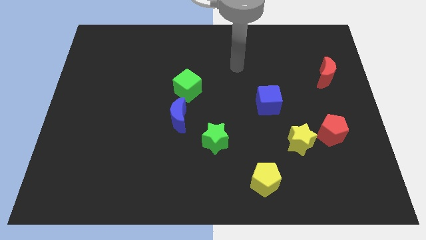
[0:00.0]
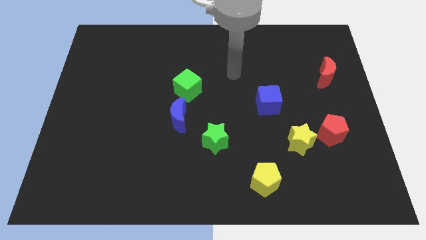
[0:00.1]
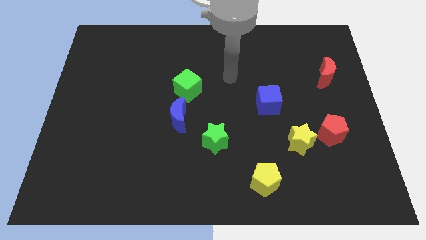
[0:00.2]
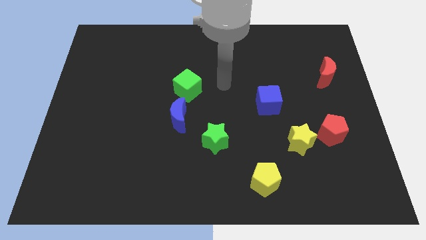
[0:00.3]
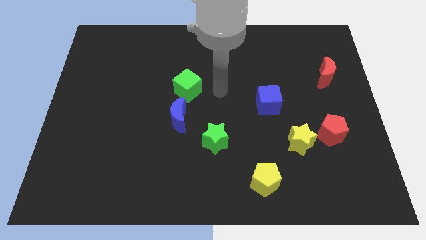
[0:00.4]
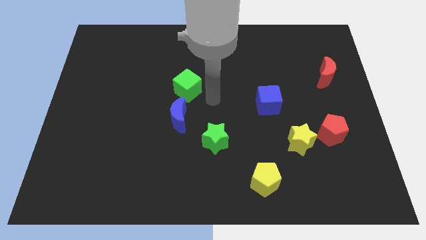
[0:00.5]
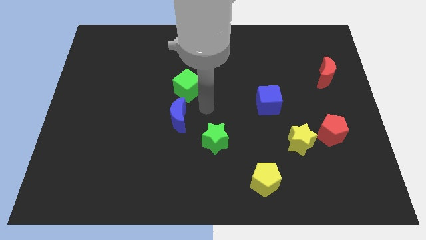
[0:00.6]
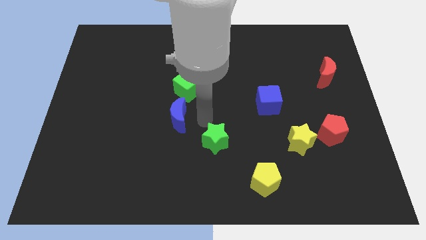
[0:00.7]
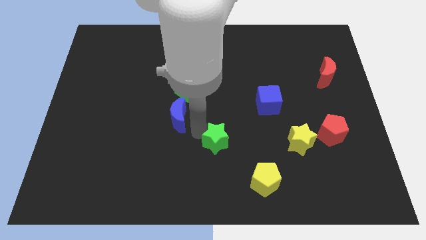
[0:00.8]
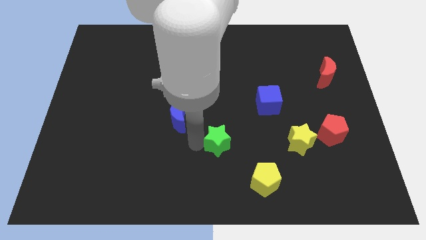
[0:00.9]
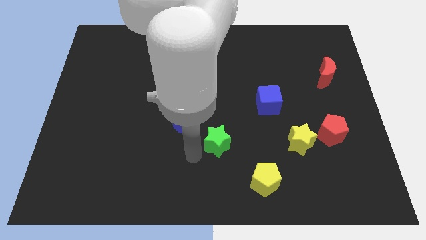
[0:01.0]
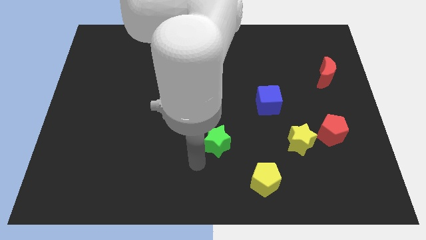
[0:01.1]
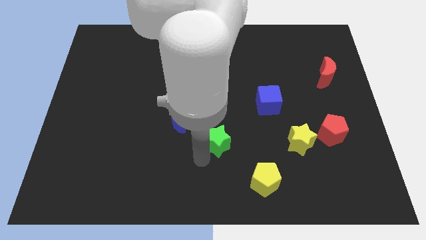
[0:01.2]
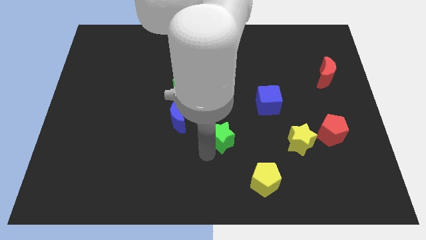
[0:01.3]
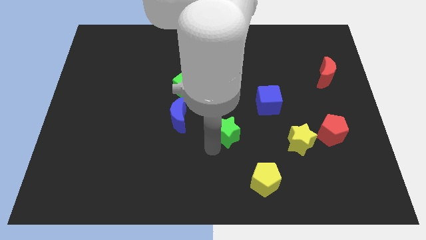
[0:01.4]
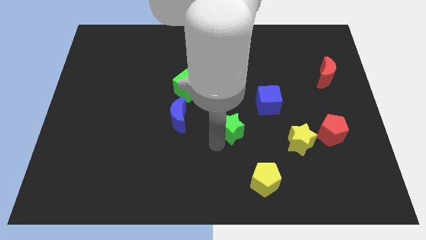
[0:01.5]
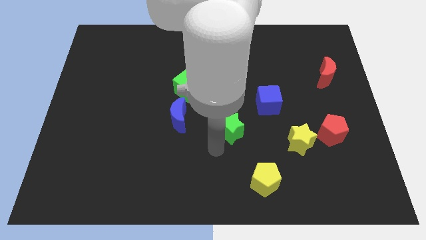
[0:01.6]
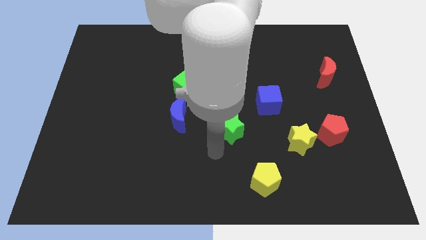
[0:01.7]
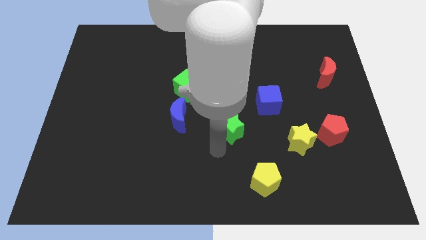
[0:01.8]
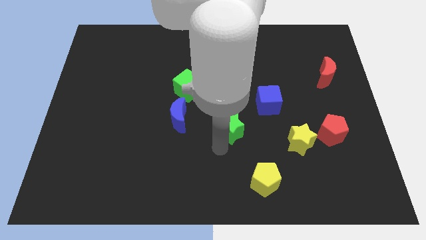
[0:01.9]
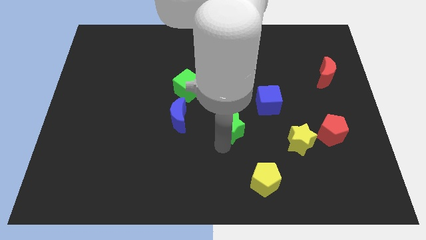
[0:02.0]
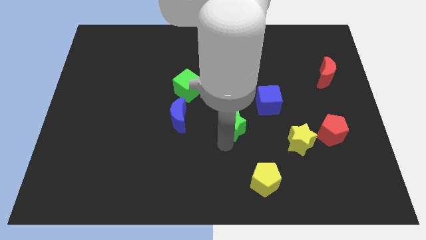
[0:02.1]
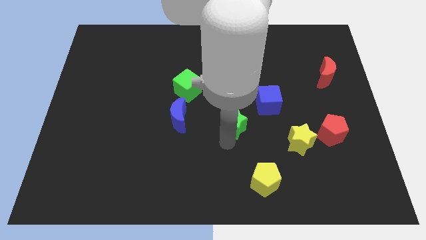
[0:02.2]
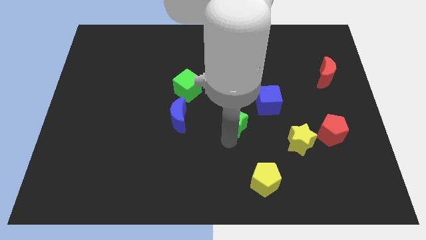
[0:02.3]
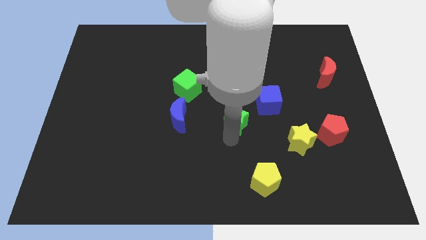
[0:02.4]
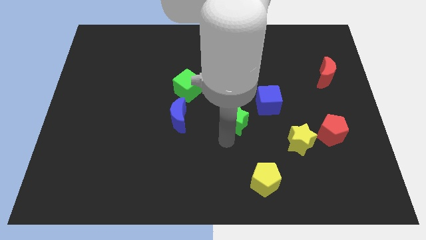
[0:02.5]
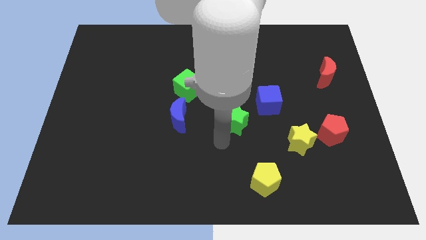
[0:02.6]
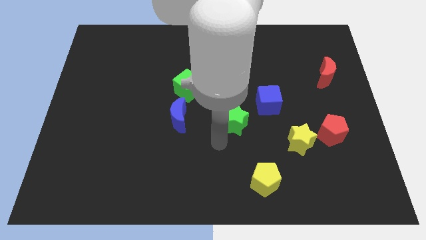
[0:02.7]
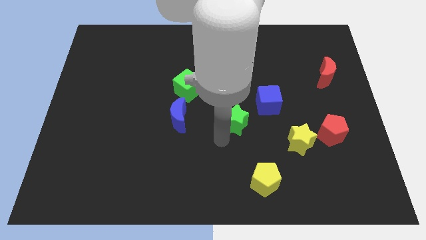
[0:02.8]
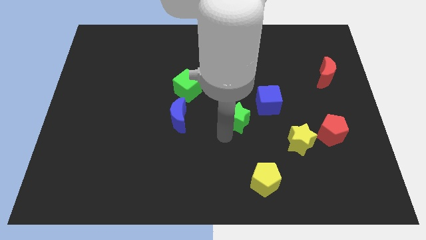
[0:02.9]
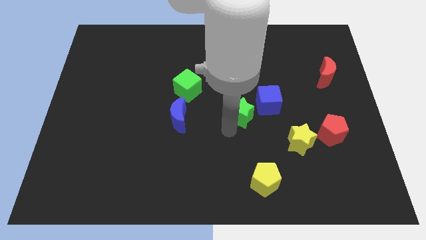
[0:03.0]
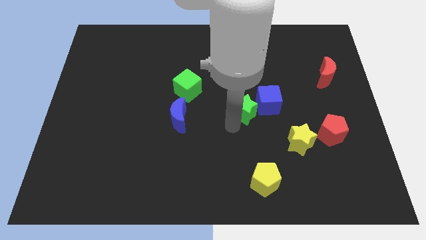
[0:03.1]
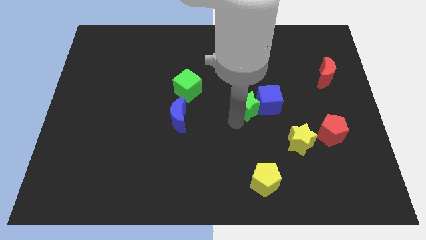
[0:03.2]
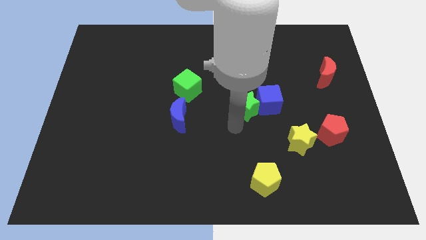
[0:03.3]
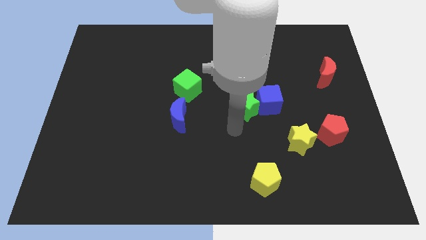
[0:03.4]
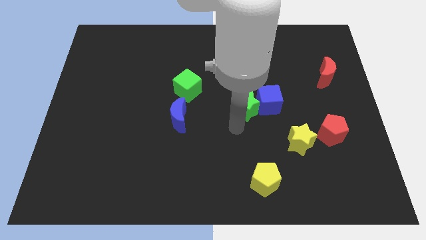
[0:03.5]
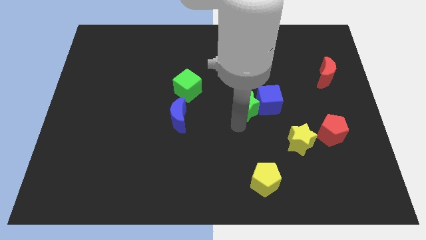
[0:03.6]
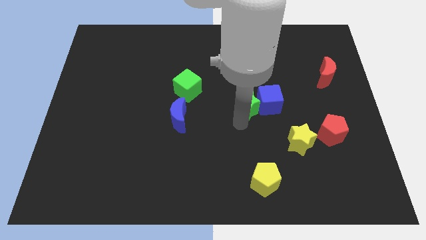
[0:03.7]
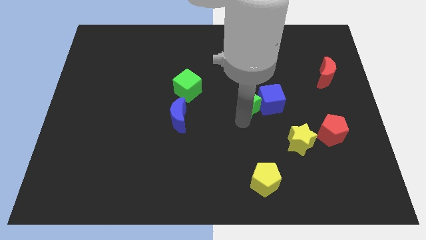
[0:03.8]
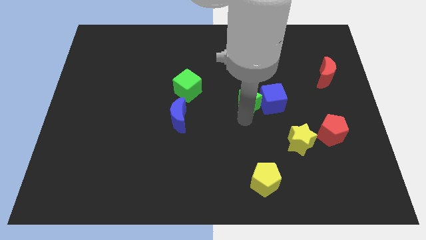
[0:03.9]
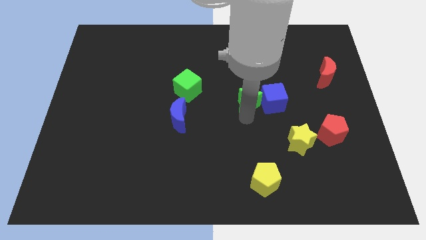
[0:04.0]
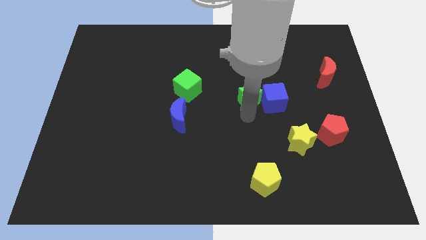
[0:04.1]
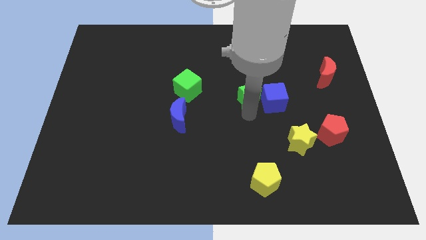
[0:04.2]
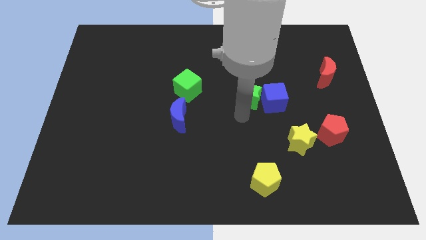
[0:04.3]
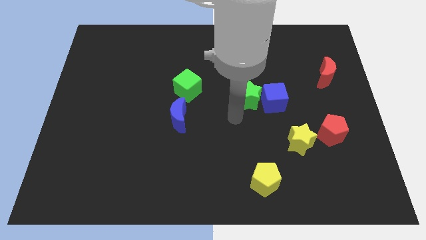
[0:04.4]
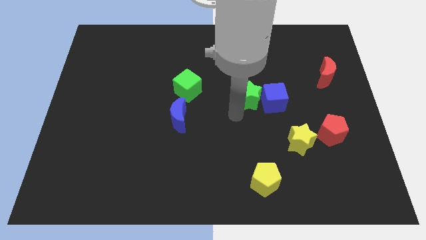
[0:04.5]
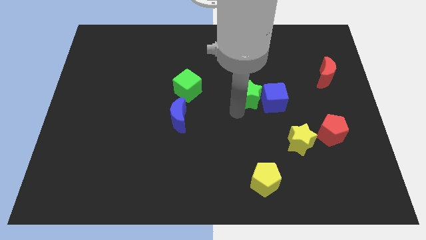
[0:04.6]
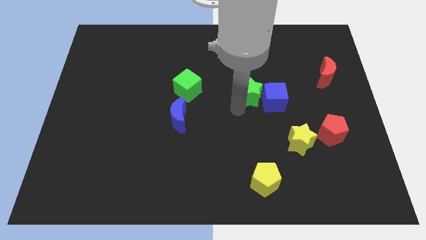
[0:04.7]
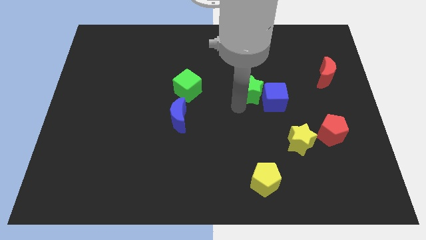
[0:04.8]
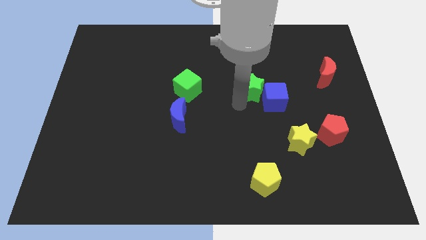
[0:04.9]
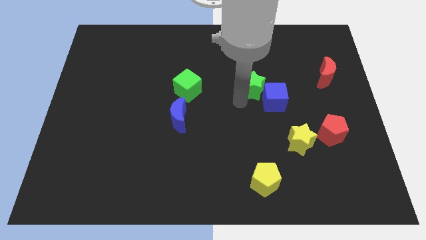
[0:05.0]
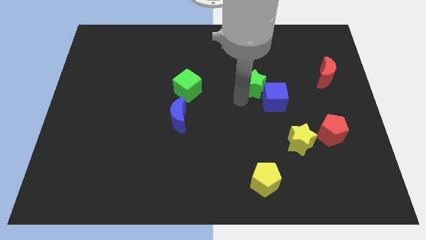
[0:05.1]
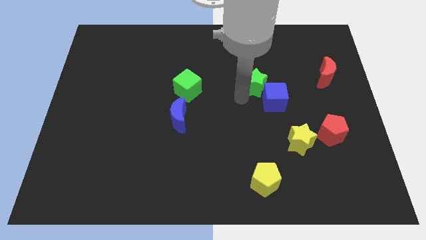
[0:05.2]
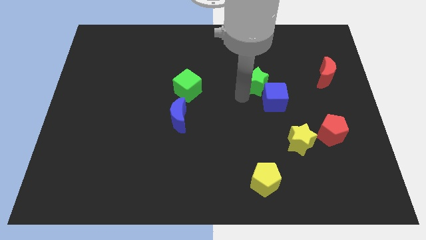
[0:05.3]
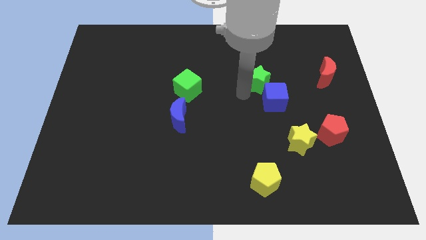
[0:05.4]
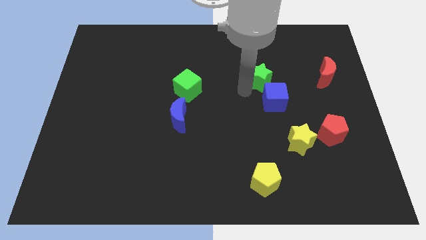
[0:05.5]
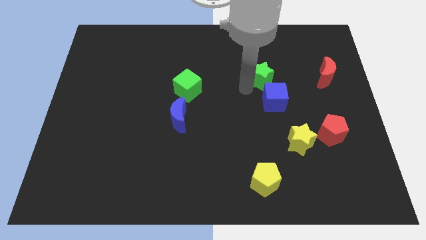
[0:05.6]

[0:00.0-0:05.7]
move the green star up and to the right

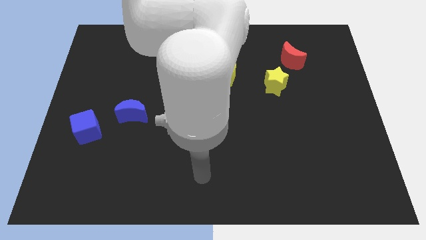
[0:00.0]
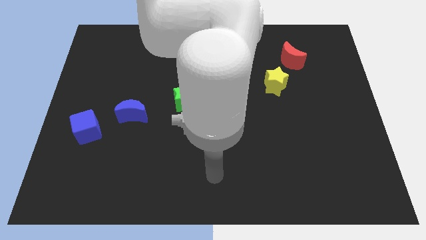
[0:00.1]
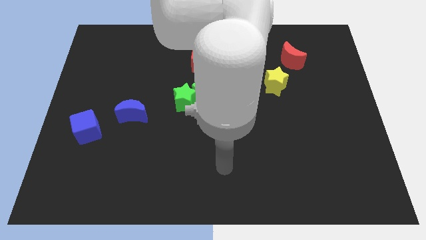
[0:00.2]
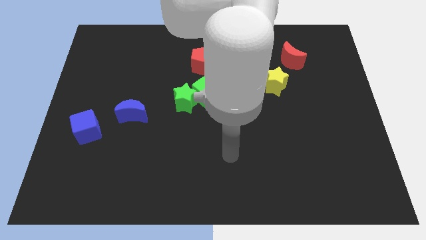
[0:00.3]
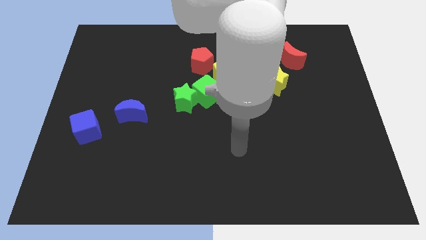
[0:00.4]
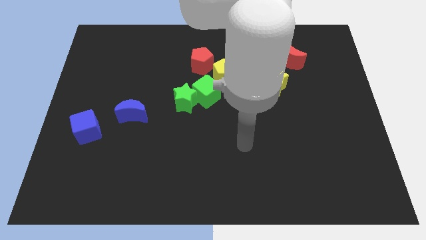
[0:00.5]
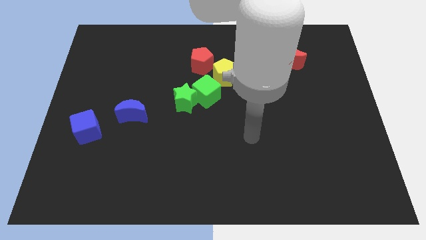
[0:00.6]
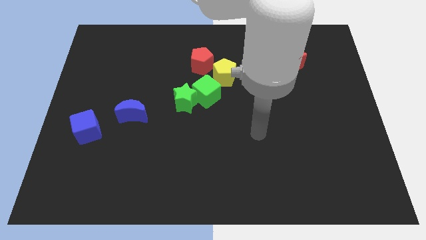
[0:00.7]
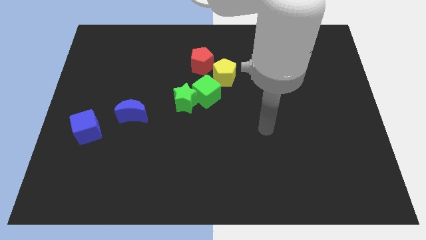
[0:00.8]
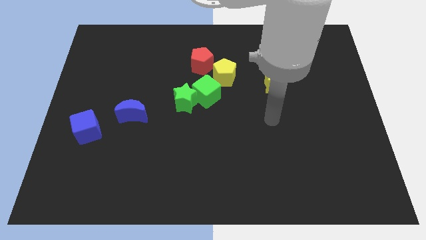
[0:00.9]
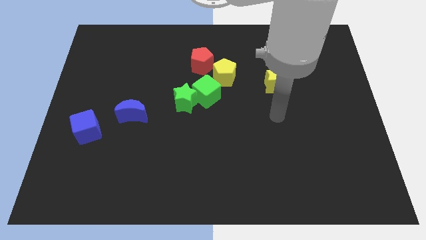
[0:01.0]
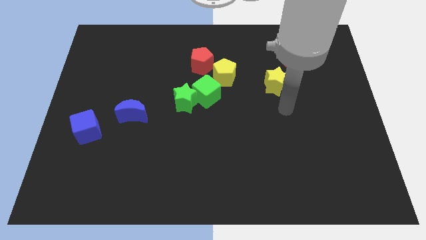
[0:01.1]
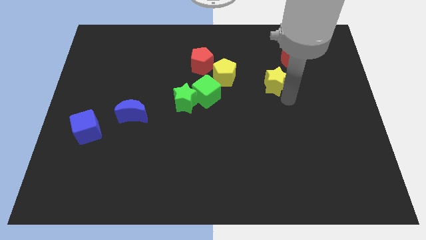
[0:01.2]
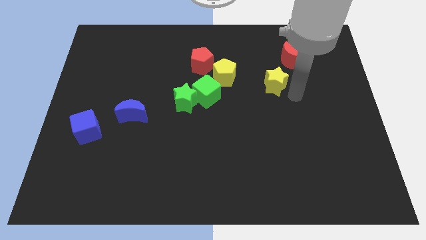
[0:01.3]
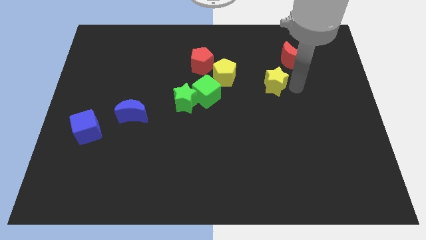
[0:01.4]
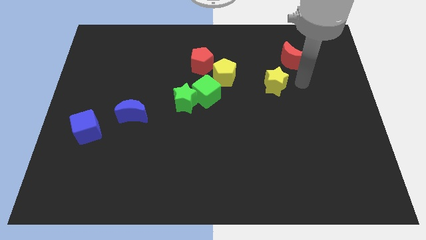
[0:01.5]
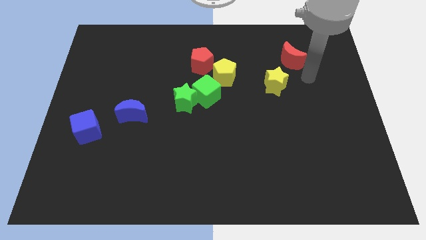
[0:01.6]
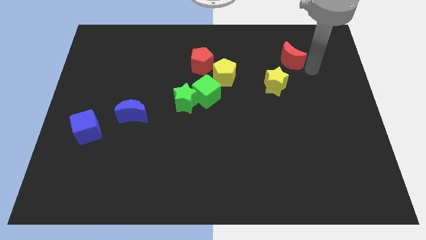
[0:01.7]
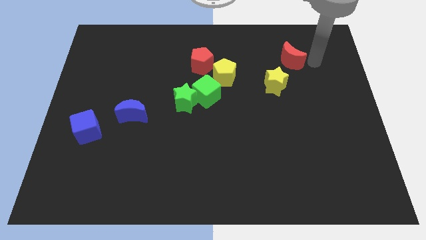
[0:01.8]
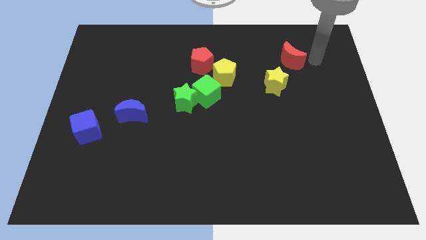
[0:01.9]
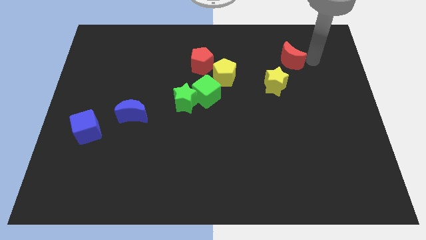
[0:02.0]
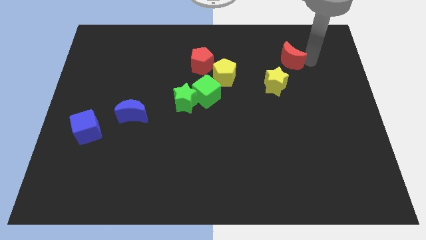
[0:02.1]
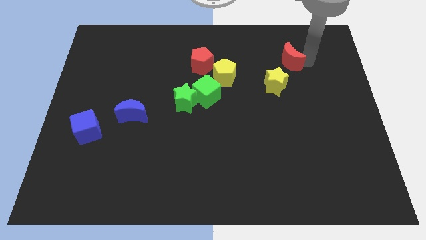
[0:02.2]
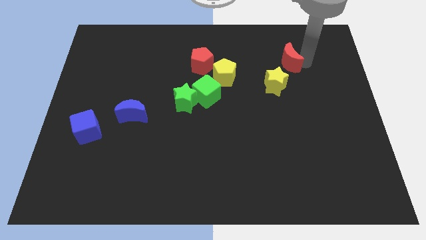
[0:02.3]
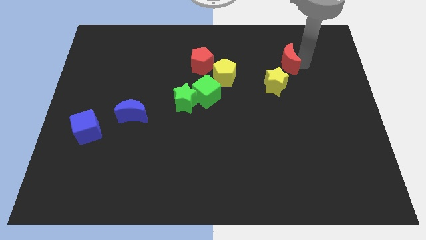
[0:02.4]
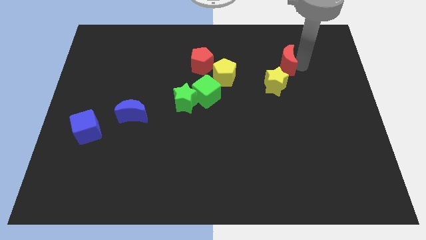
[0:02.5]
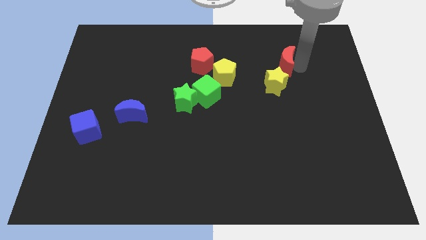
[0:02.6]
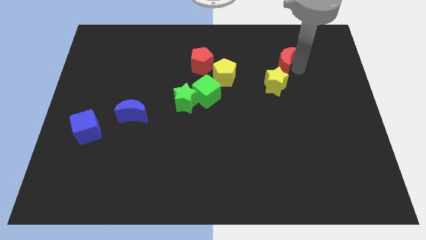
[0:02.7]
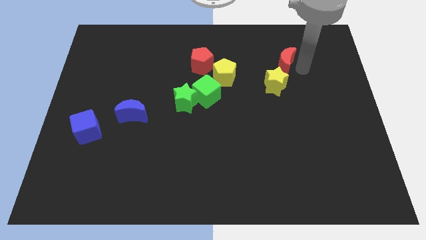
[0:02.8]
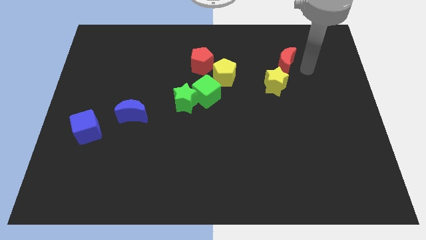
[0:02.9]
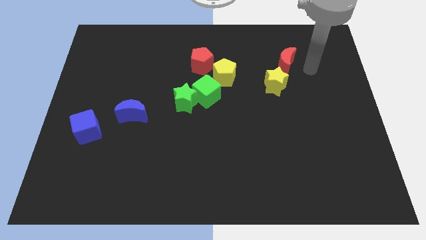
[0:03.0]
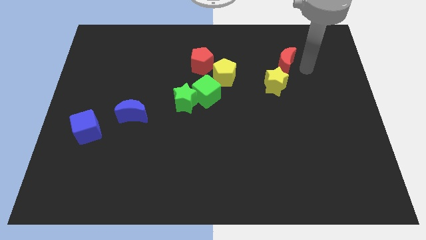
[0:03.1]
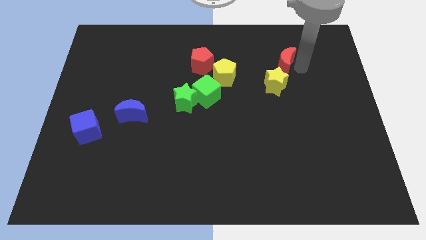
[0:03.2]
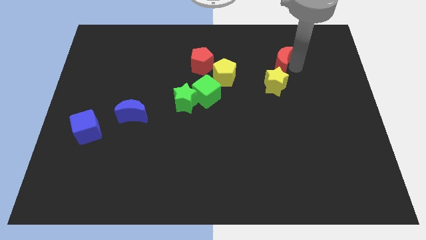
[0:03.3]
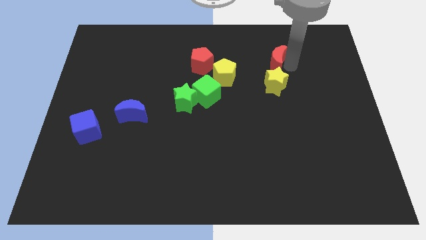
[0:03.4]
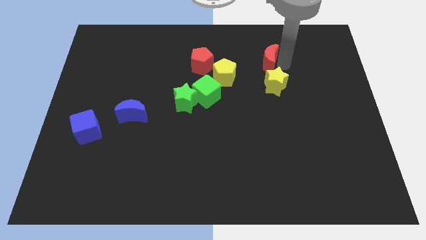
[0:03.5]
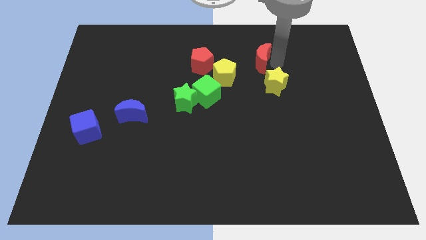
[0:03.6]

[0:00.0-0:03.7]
slide the red moon a bit to the left
